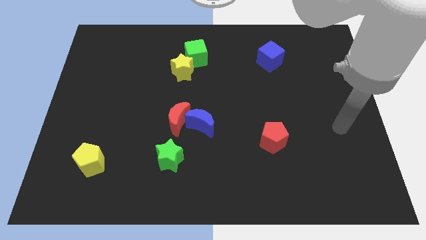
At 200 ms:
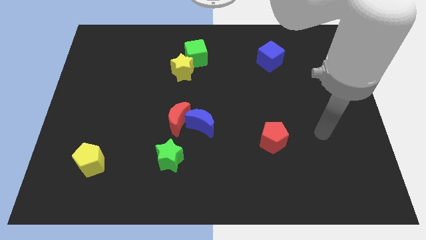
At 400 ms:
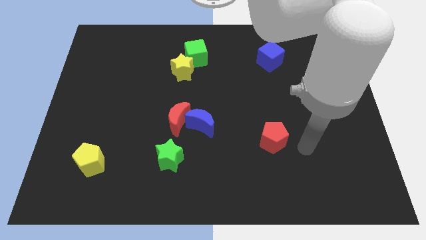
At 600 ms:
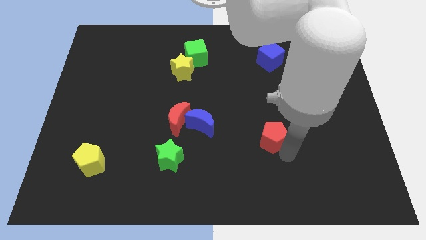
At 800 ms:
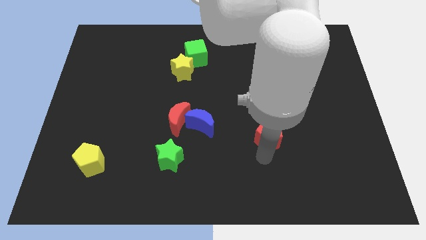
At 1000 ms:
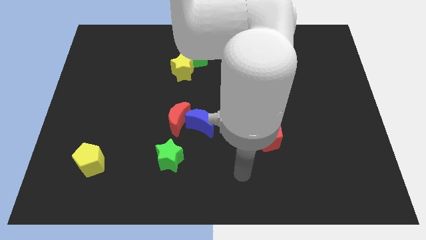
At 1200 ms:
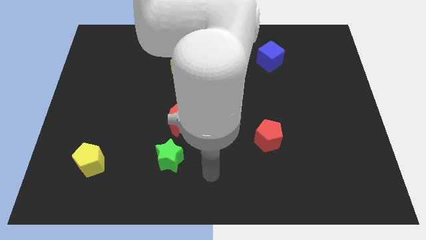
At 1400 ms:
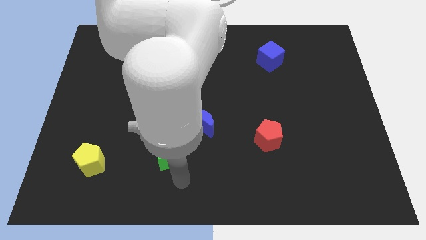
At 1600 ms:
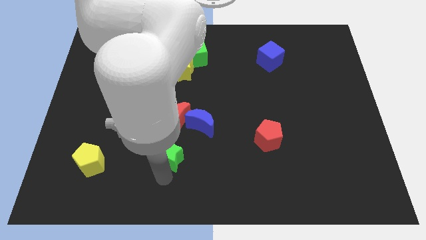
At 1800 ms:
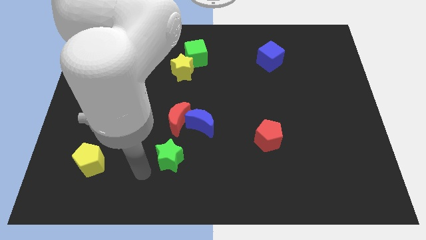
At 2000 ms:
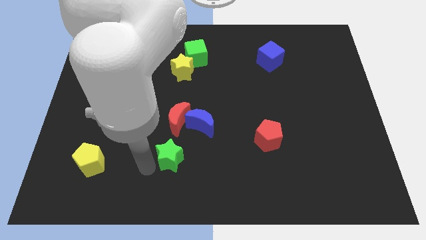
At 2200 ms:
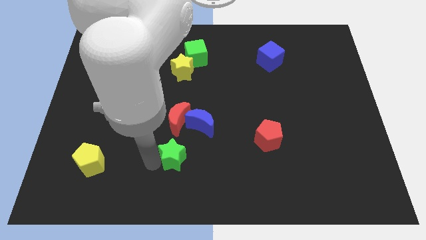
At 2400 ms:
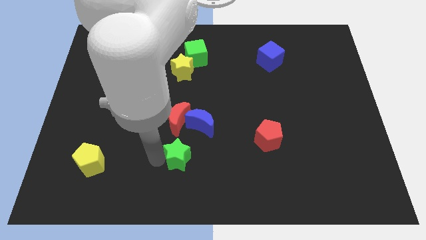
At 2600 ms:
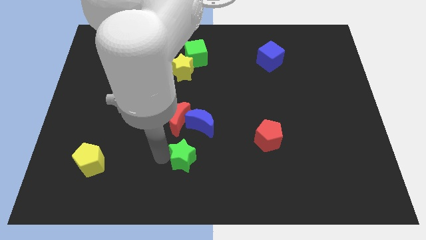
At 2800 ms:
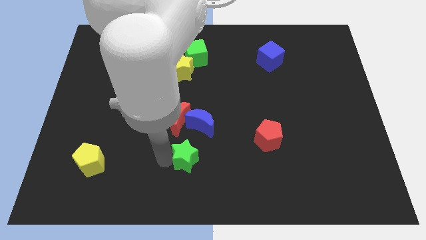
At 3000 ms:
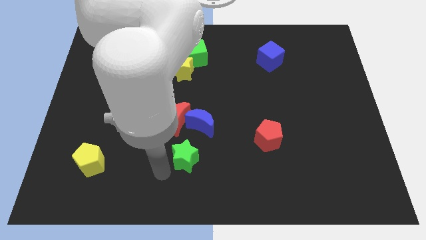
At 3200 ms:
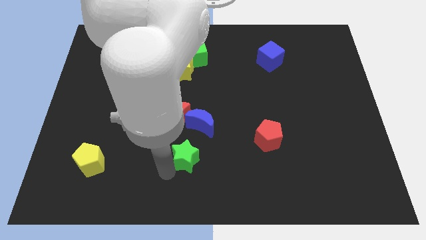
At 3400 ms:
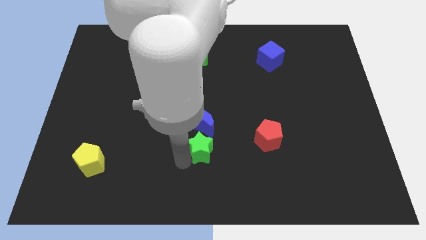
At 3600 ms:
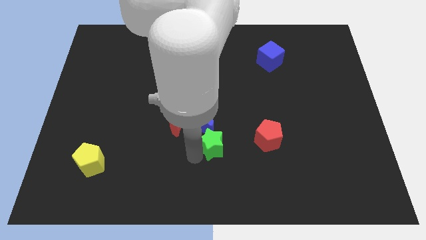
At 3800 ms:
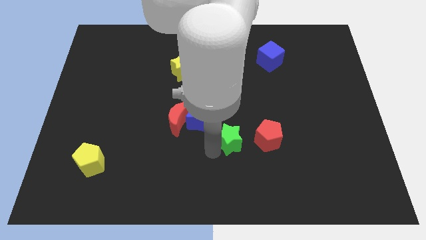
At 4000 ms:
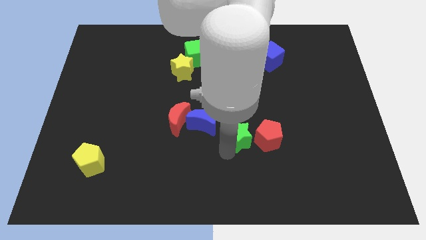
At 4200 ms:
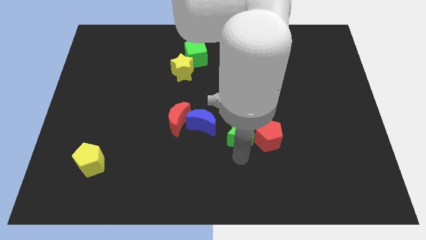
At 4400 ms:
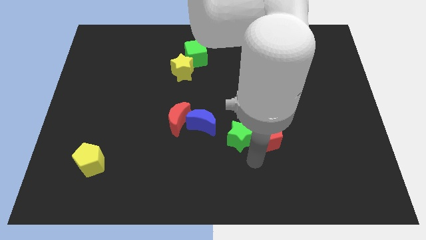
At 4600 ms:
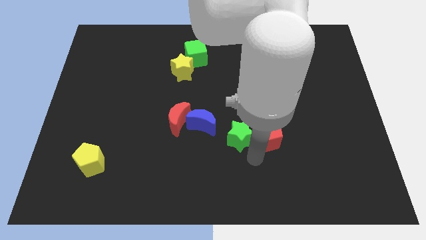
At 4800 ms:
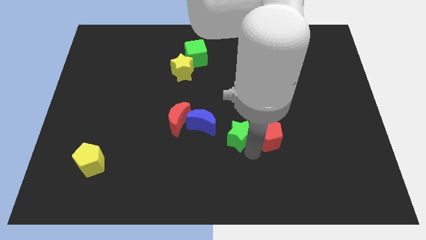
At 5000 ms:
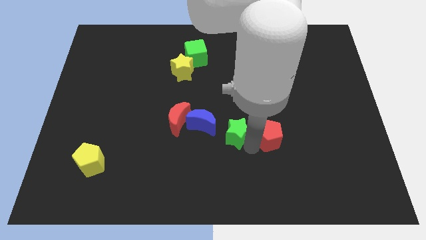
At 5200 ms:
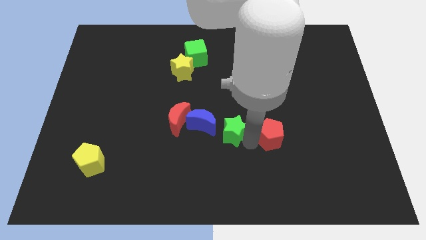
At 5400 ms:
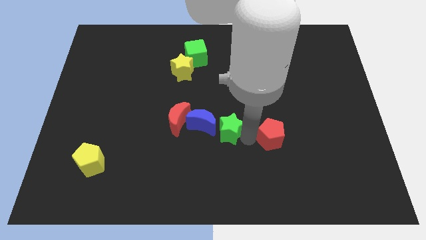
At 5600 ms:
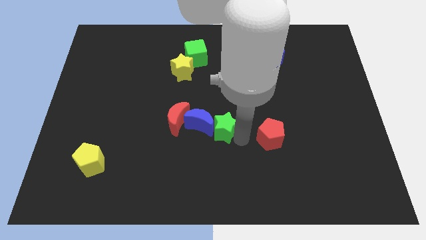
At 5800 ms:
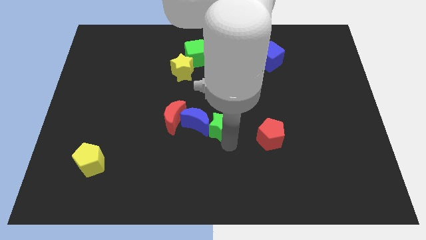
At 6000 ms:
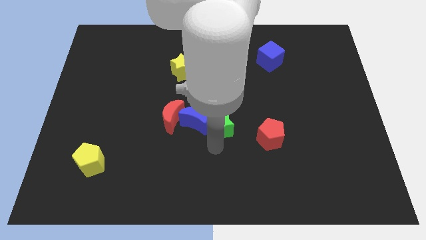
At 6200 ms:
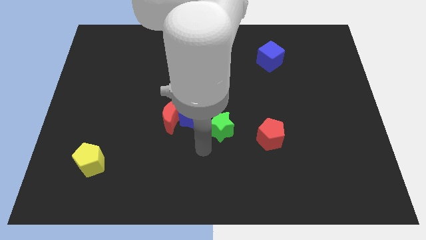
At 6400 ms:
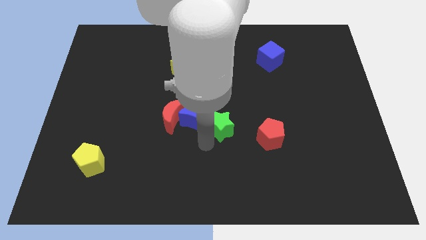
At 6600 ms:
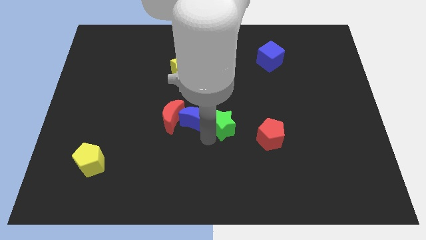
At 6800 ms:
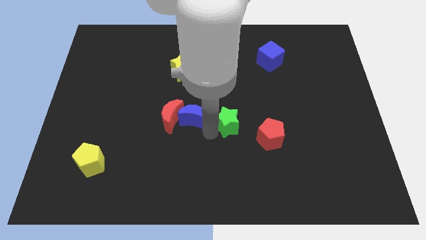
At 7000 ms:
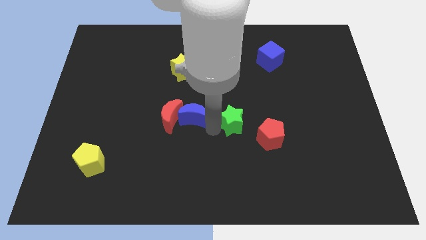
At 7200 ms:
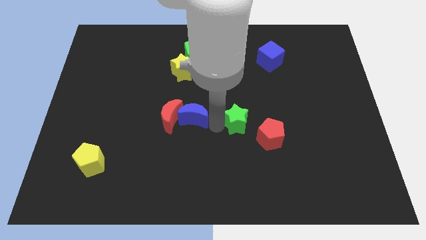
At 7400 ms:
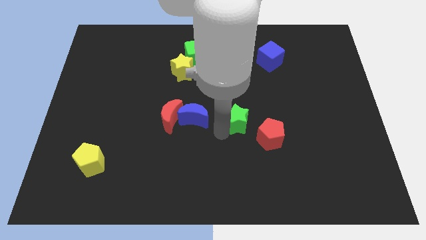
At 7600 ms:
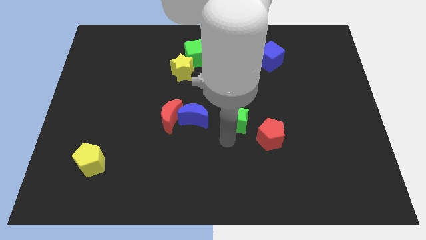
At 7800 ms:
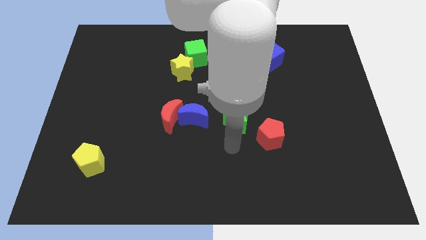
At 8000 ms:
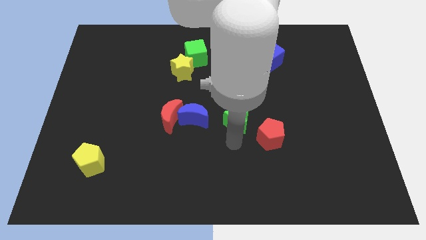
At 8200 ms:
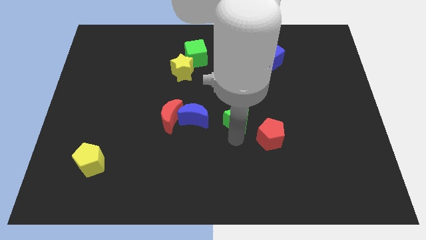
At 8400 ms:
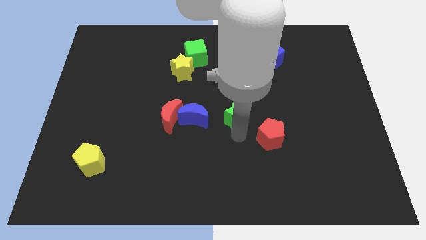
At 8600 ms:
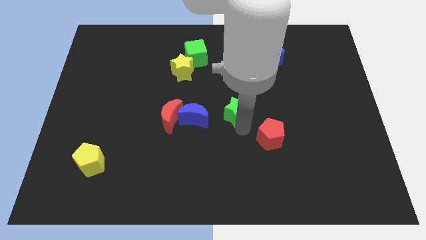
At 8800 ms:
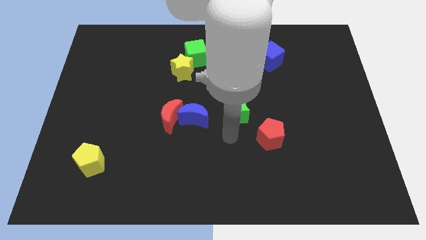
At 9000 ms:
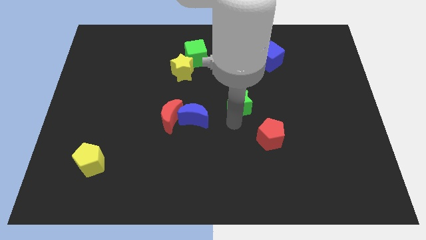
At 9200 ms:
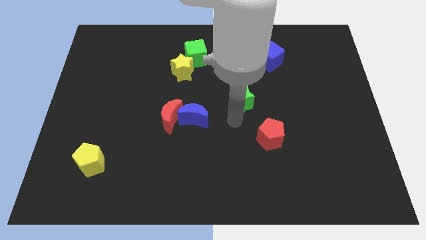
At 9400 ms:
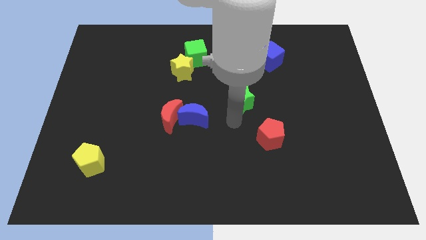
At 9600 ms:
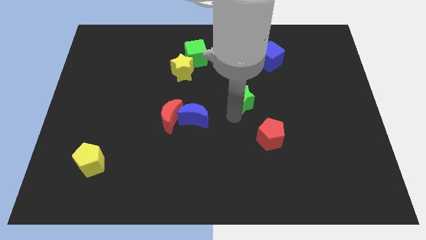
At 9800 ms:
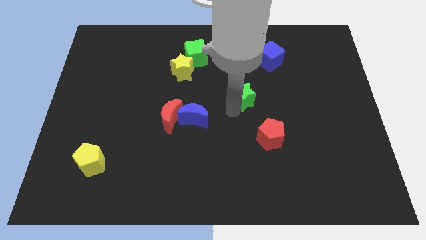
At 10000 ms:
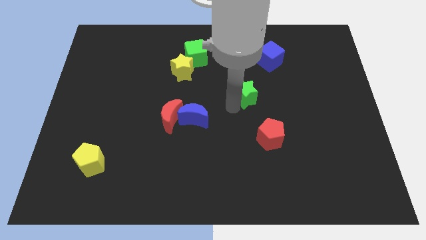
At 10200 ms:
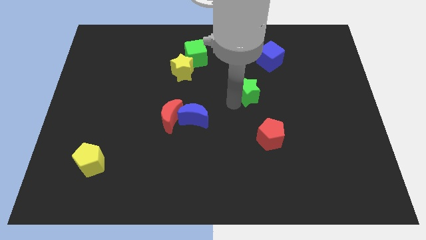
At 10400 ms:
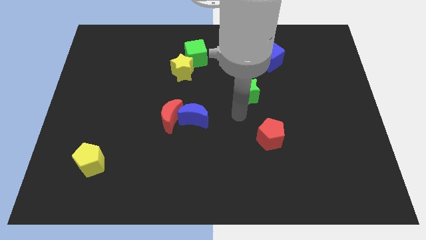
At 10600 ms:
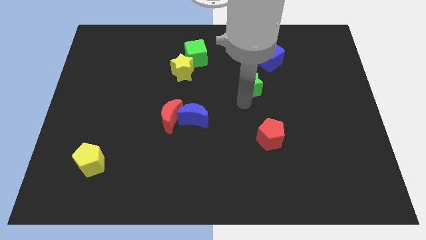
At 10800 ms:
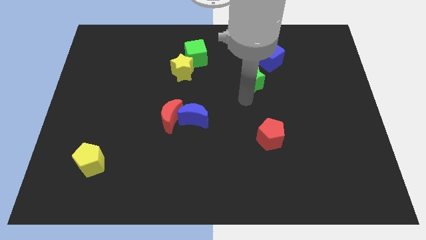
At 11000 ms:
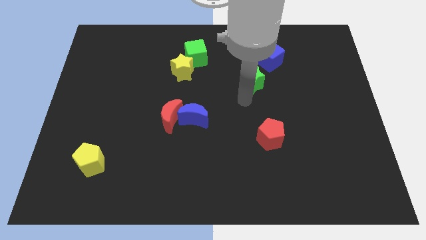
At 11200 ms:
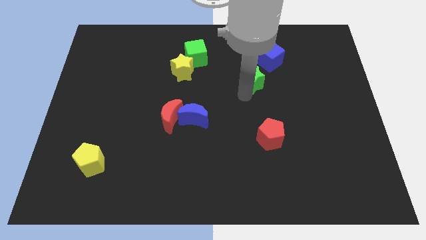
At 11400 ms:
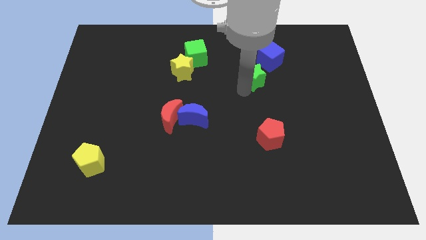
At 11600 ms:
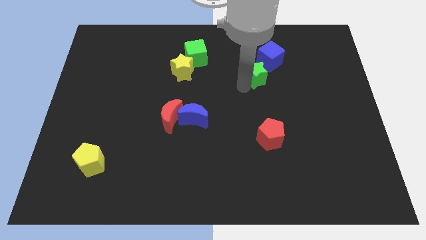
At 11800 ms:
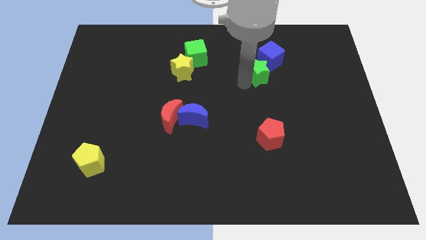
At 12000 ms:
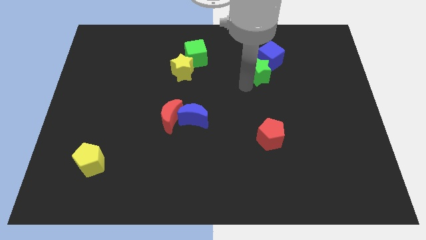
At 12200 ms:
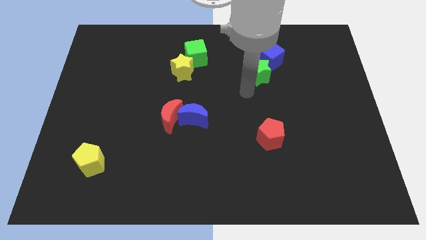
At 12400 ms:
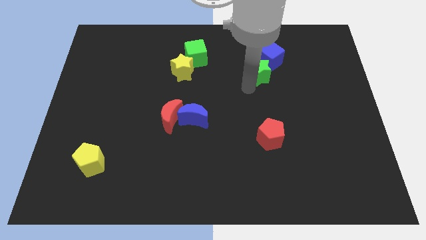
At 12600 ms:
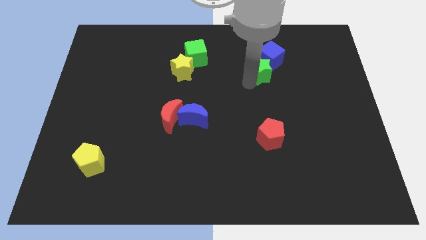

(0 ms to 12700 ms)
move the green star towards the blue cube

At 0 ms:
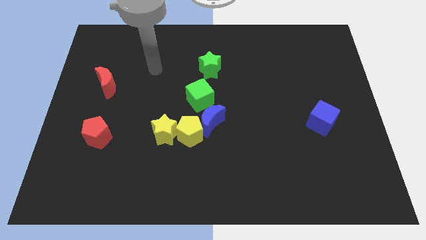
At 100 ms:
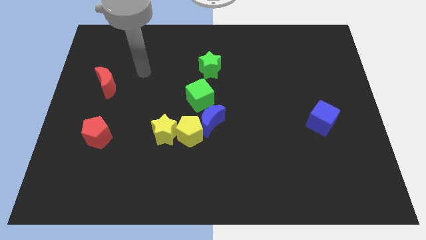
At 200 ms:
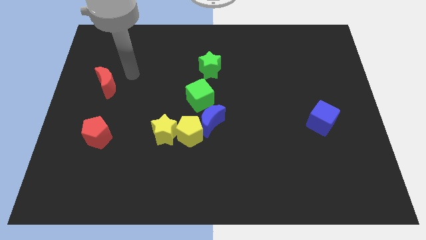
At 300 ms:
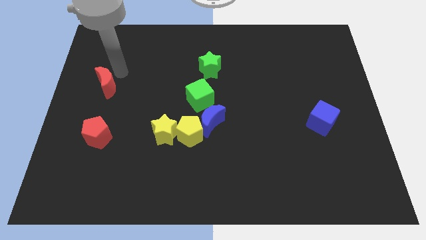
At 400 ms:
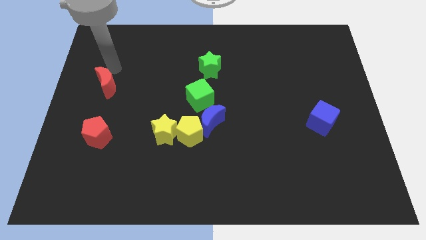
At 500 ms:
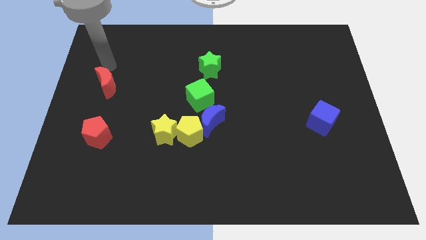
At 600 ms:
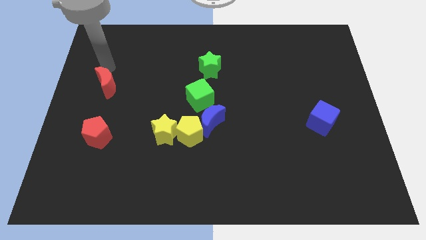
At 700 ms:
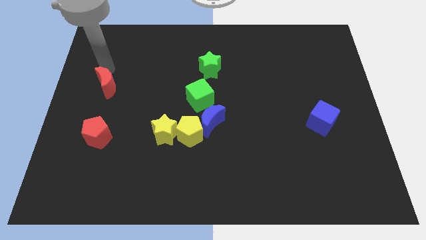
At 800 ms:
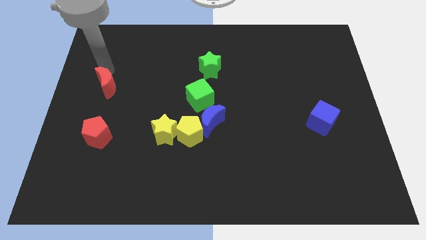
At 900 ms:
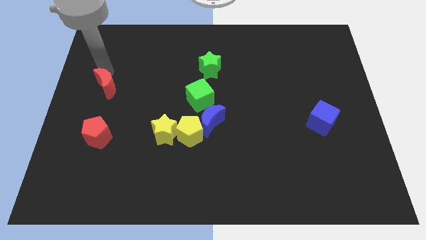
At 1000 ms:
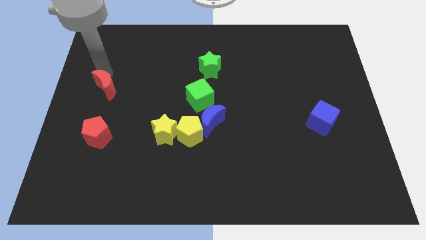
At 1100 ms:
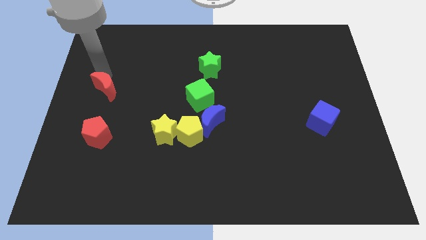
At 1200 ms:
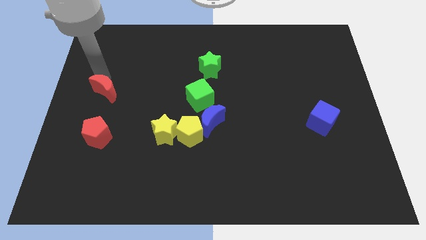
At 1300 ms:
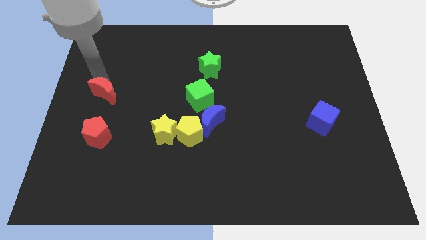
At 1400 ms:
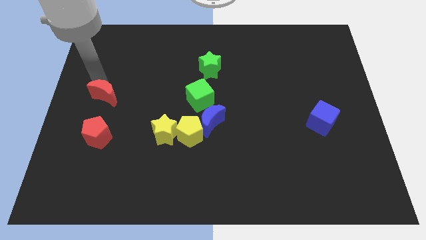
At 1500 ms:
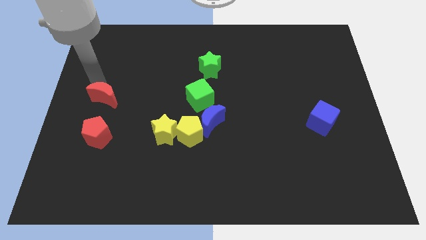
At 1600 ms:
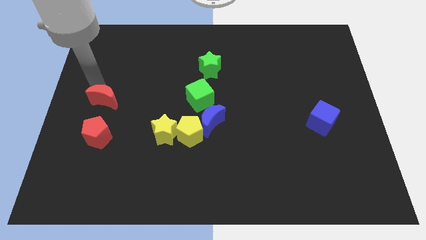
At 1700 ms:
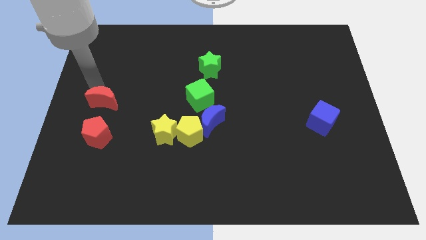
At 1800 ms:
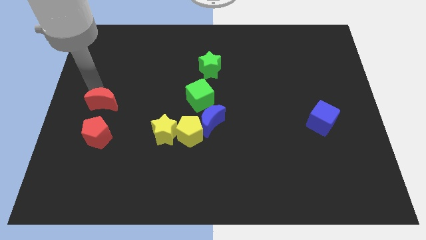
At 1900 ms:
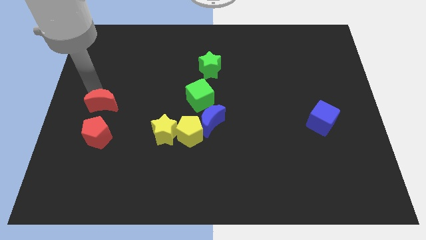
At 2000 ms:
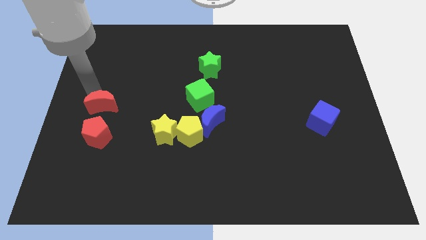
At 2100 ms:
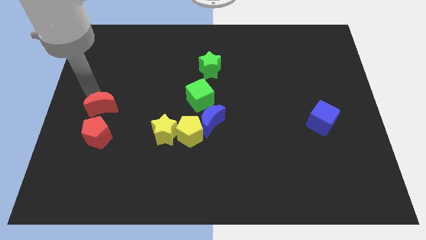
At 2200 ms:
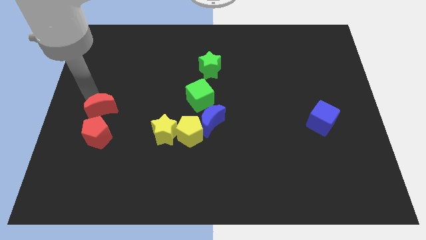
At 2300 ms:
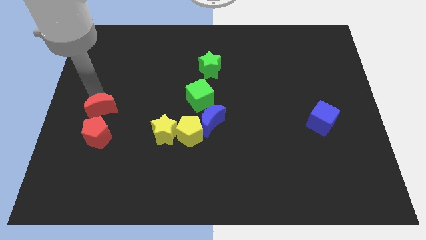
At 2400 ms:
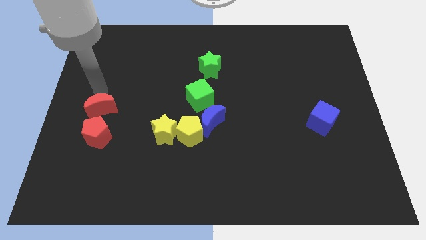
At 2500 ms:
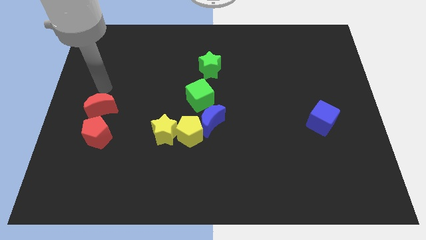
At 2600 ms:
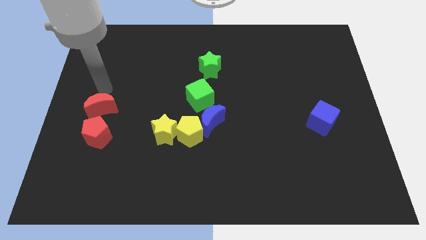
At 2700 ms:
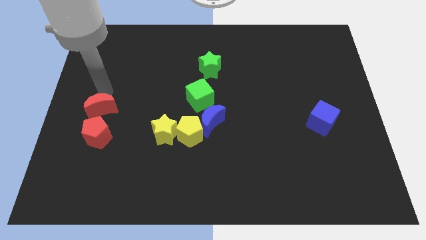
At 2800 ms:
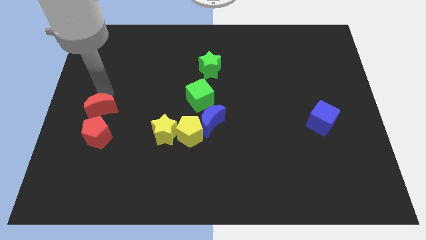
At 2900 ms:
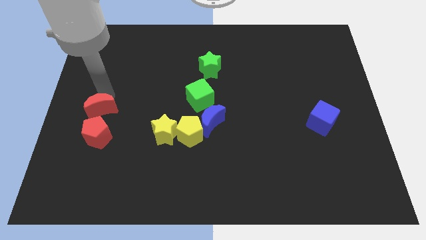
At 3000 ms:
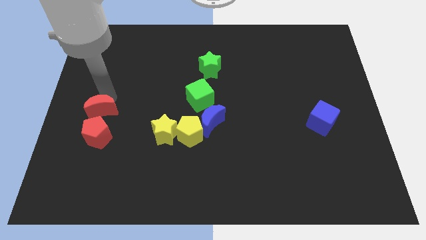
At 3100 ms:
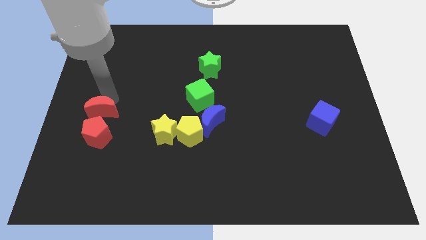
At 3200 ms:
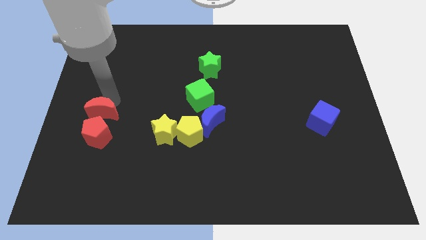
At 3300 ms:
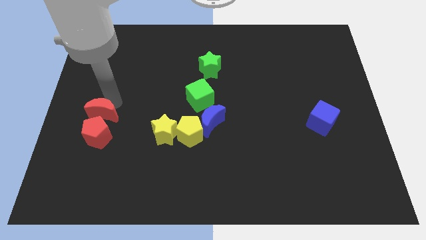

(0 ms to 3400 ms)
put the red moon close to the red pentagon
